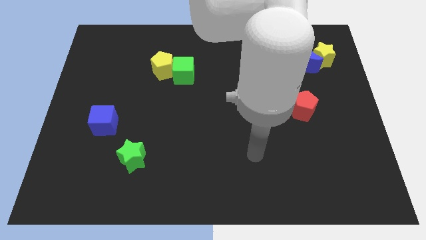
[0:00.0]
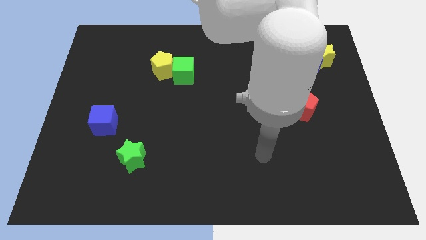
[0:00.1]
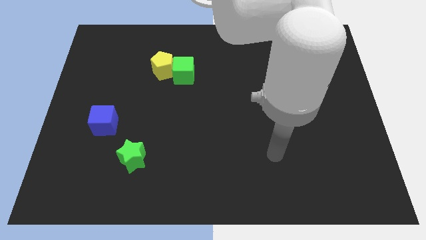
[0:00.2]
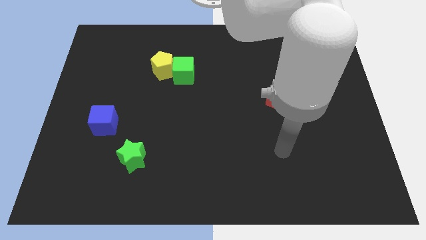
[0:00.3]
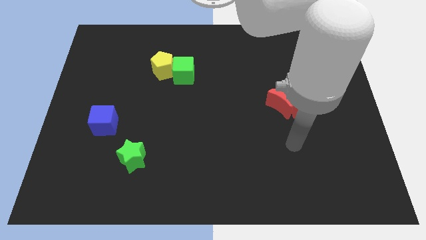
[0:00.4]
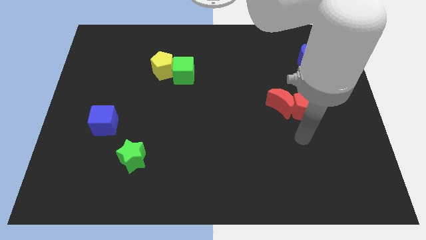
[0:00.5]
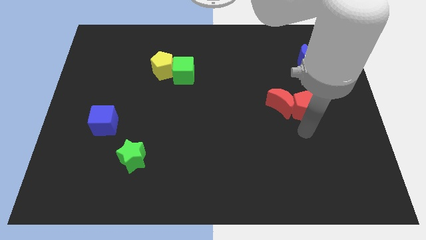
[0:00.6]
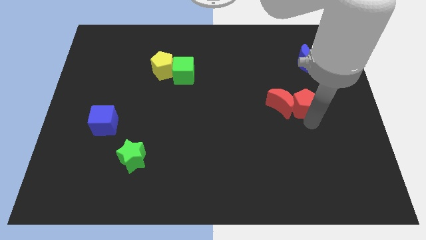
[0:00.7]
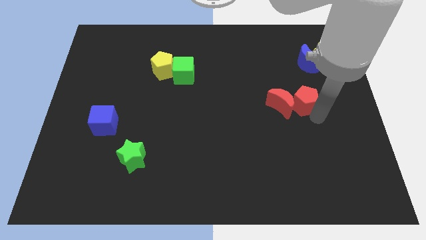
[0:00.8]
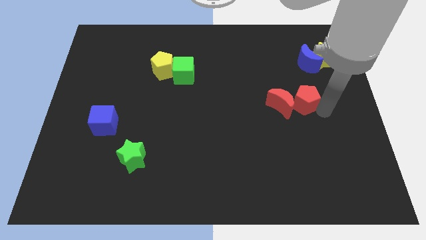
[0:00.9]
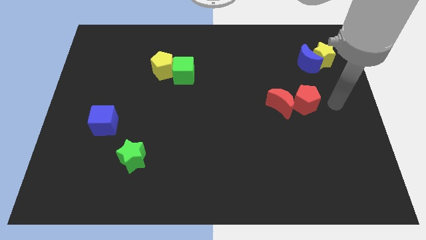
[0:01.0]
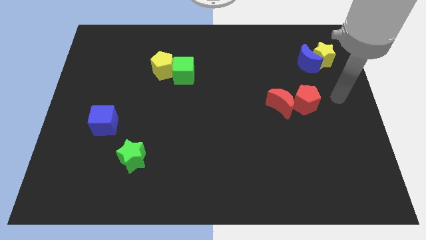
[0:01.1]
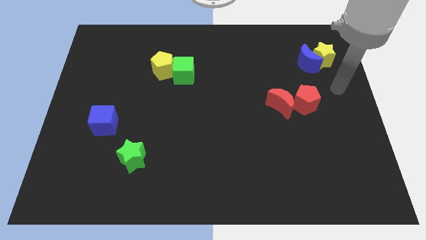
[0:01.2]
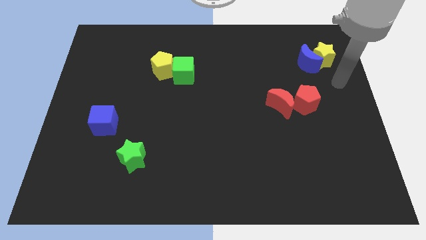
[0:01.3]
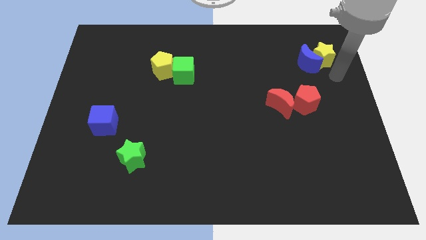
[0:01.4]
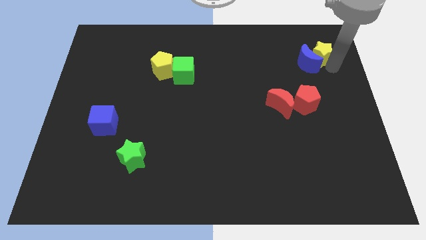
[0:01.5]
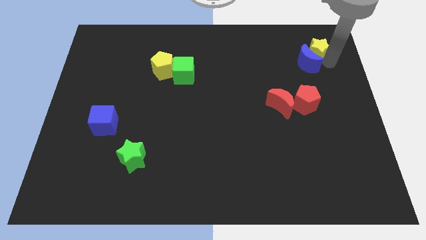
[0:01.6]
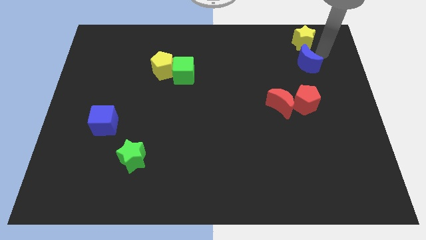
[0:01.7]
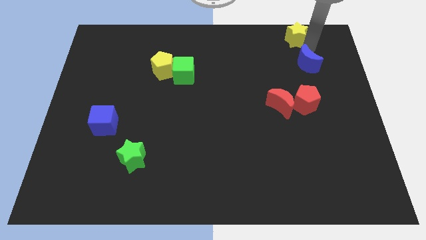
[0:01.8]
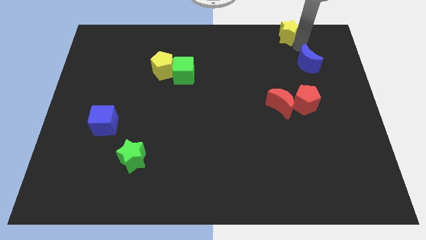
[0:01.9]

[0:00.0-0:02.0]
pull the blue moon apart from the yellow star

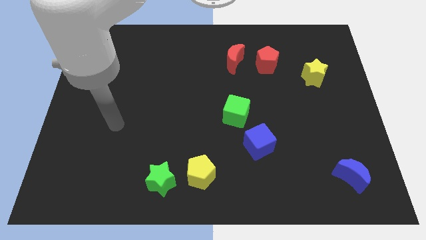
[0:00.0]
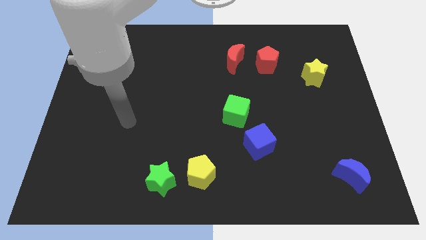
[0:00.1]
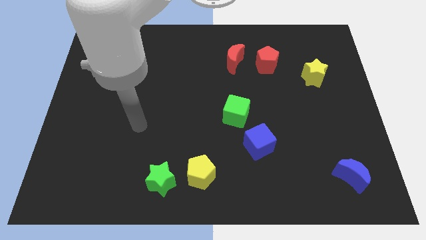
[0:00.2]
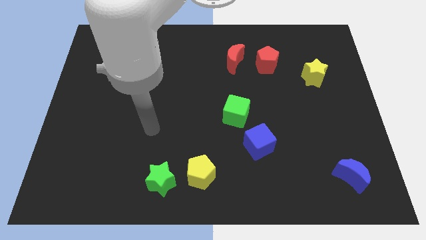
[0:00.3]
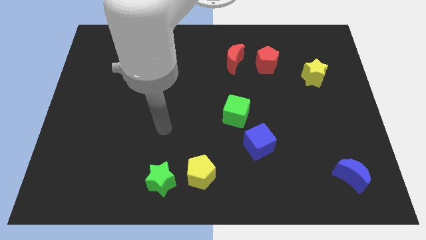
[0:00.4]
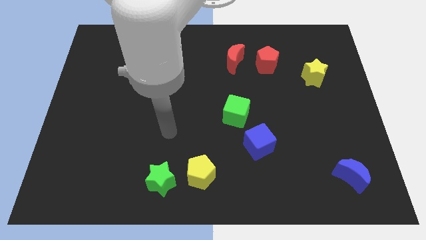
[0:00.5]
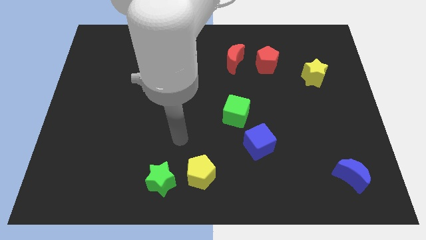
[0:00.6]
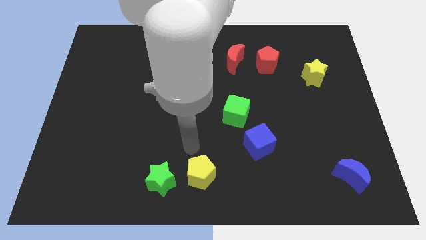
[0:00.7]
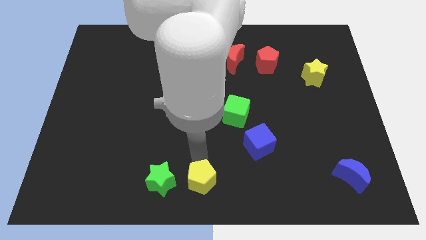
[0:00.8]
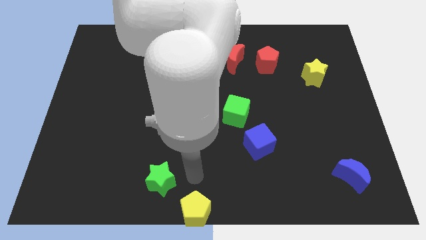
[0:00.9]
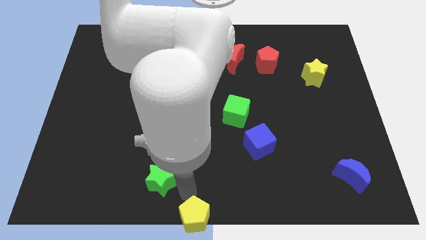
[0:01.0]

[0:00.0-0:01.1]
separate the green star from the yellow pentagon

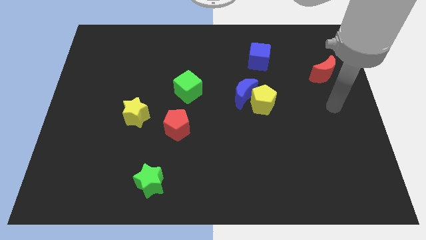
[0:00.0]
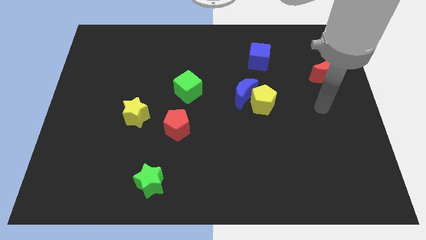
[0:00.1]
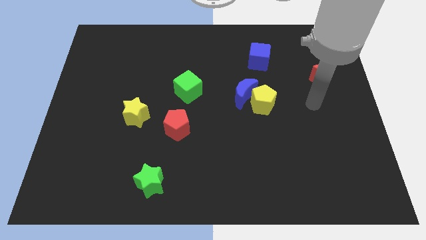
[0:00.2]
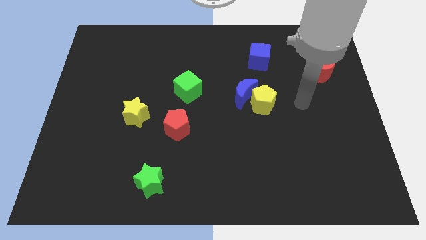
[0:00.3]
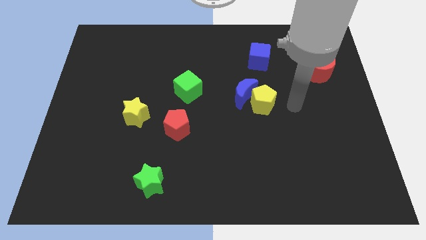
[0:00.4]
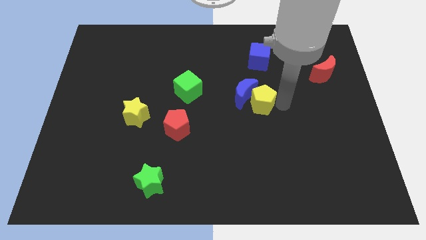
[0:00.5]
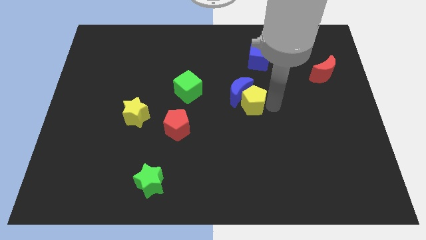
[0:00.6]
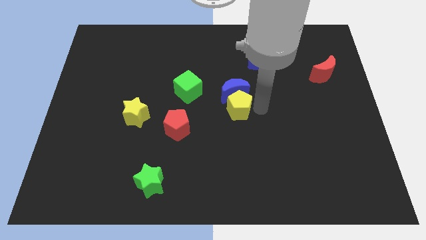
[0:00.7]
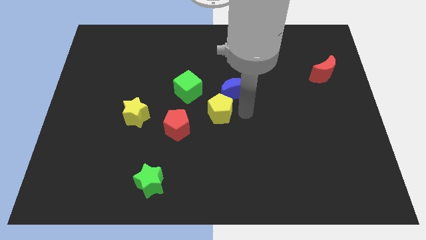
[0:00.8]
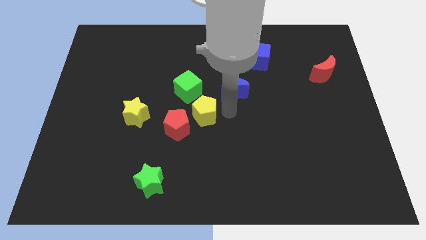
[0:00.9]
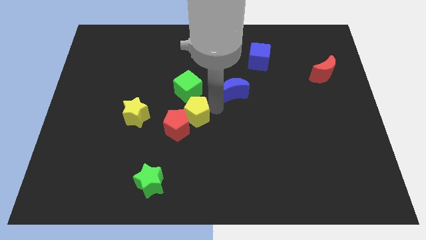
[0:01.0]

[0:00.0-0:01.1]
move the blue moon away from the yellow pentagon

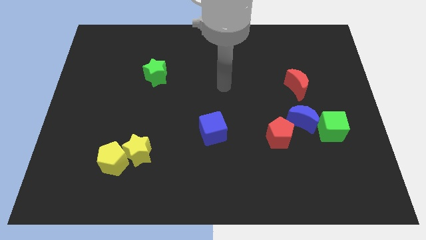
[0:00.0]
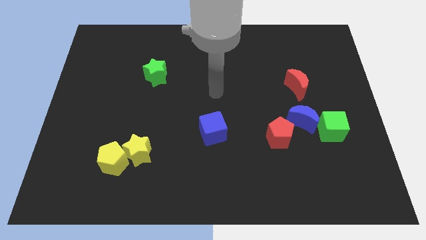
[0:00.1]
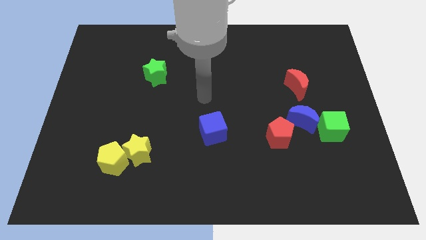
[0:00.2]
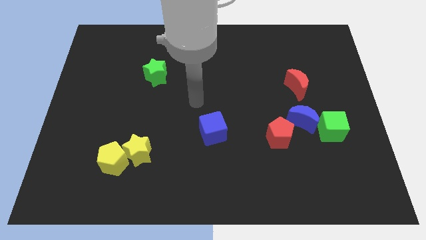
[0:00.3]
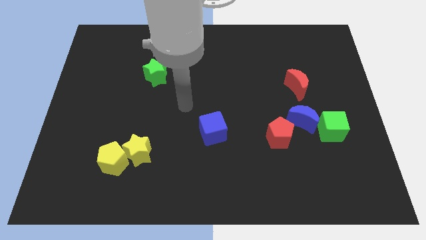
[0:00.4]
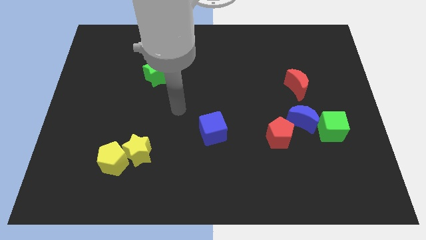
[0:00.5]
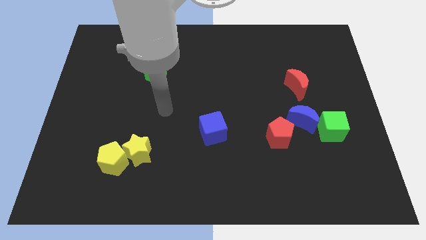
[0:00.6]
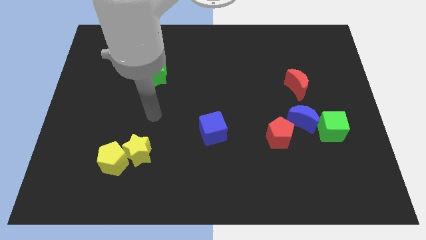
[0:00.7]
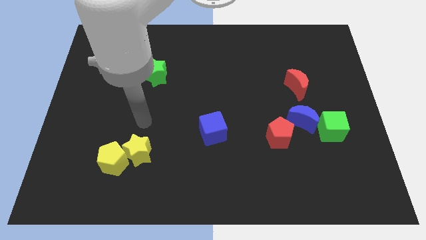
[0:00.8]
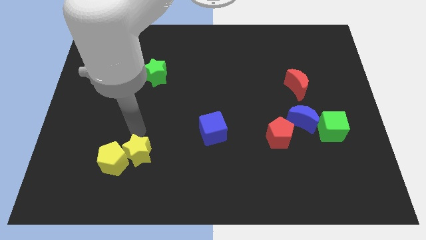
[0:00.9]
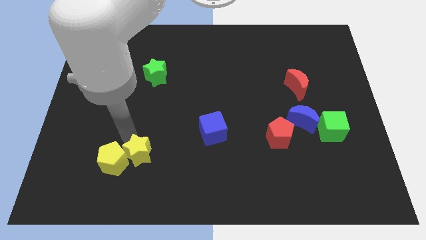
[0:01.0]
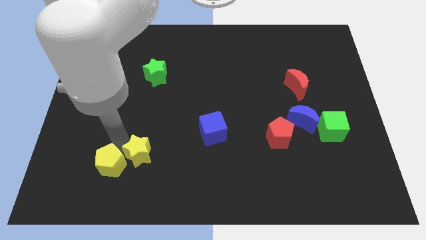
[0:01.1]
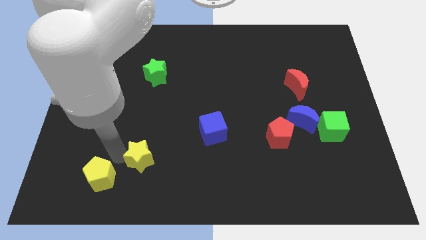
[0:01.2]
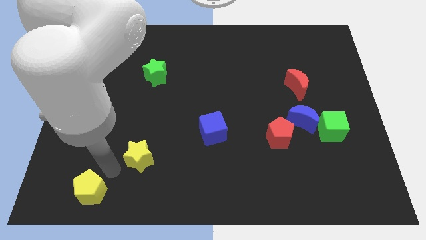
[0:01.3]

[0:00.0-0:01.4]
separate the yellow star from the yellow pentagon

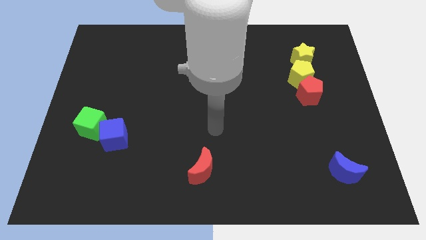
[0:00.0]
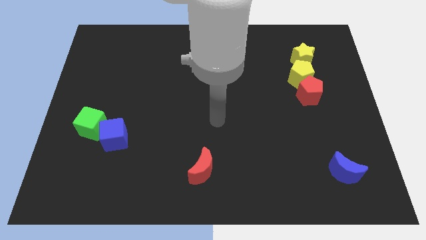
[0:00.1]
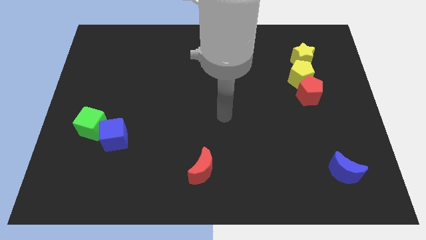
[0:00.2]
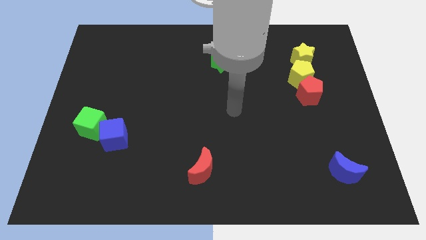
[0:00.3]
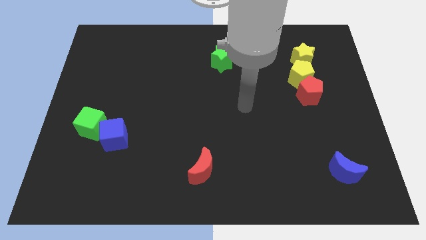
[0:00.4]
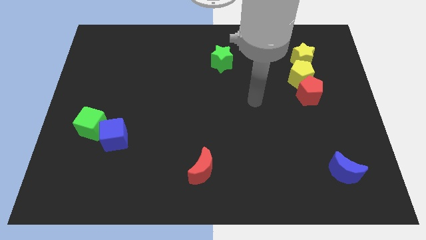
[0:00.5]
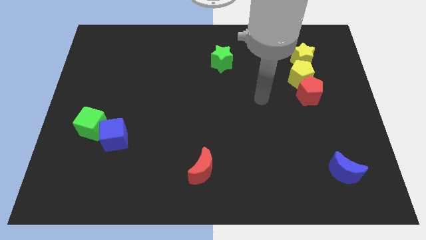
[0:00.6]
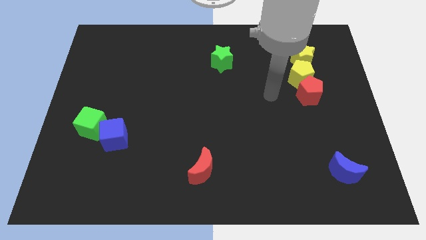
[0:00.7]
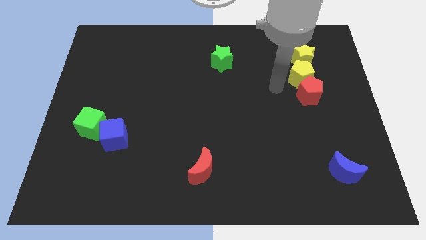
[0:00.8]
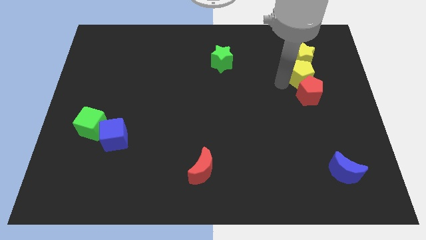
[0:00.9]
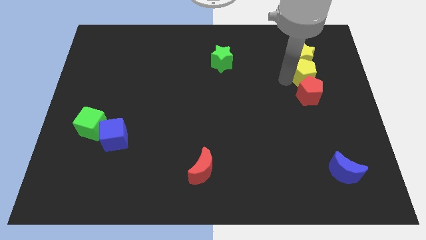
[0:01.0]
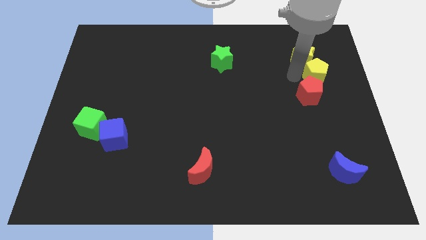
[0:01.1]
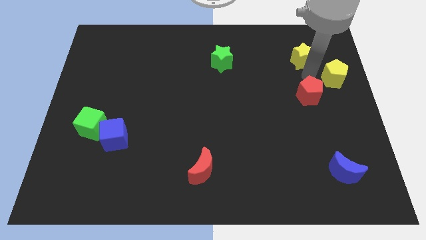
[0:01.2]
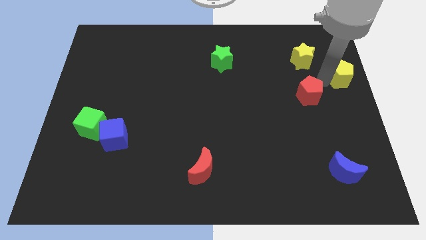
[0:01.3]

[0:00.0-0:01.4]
separate the red pentagon from the yellow pentagon

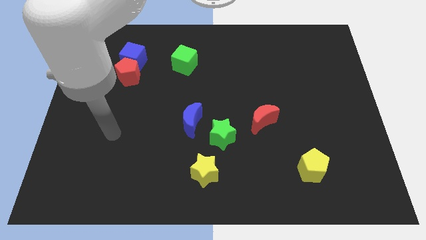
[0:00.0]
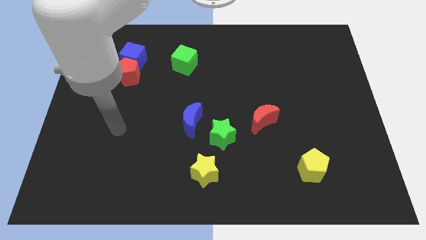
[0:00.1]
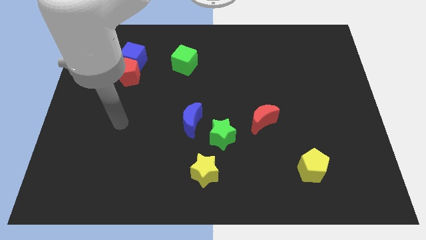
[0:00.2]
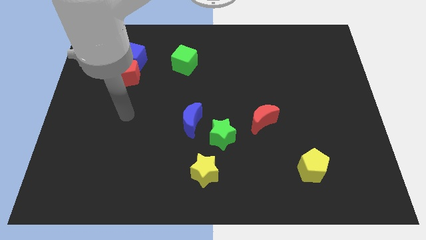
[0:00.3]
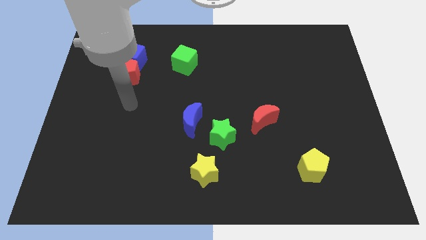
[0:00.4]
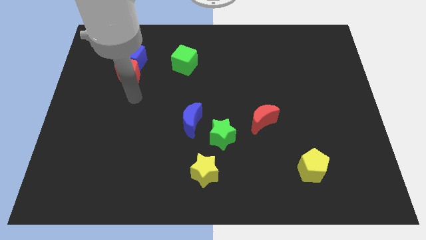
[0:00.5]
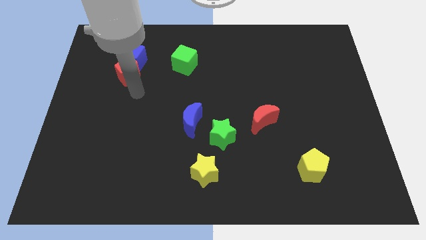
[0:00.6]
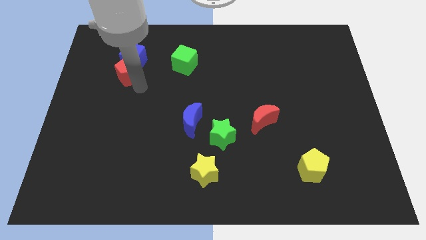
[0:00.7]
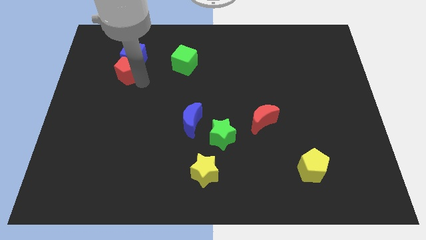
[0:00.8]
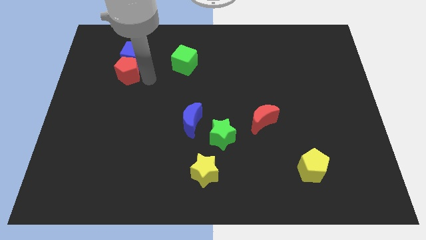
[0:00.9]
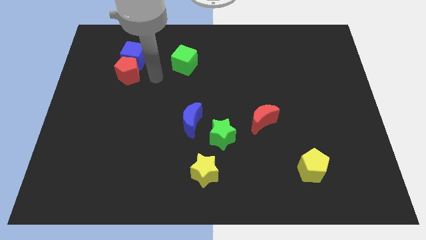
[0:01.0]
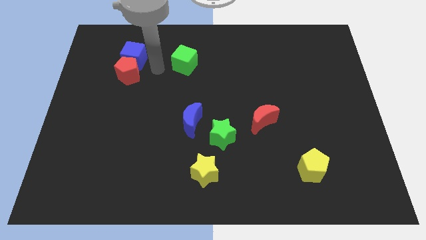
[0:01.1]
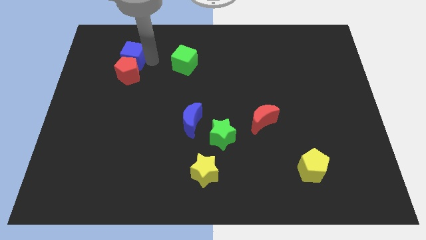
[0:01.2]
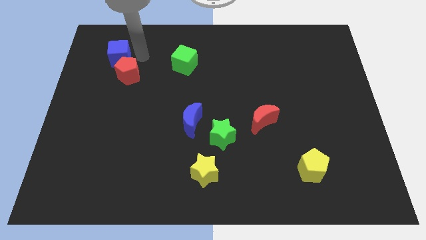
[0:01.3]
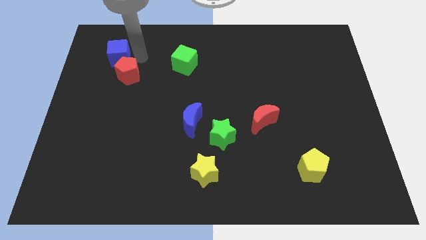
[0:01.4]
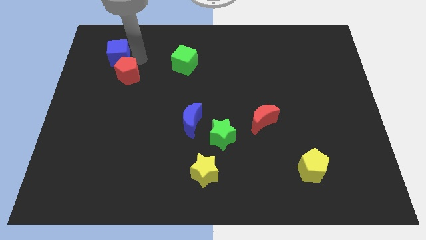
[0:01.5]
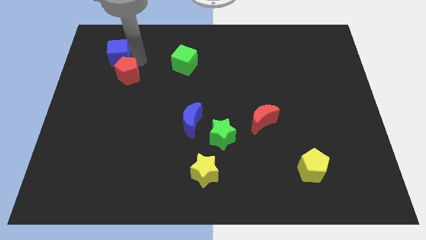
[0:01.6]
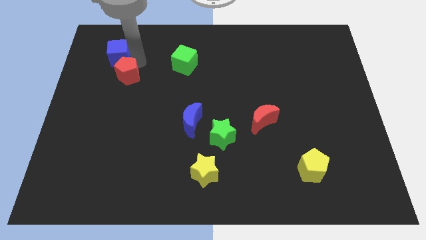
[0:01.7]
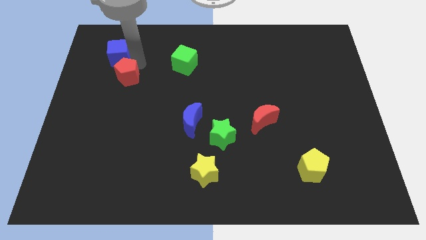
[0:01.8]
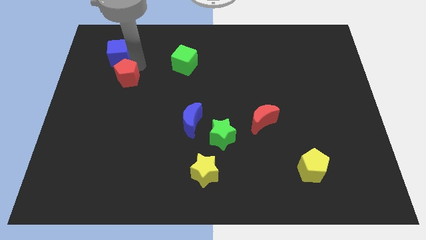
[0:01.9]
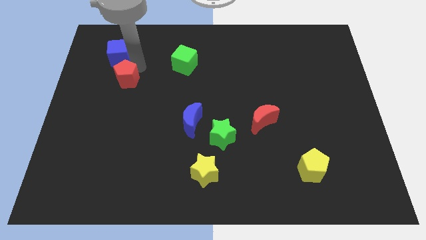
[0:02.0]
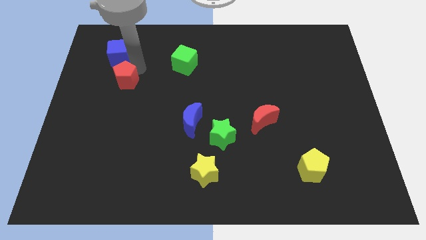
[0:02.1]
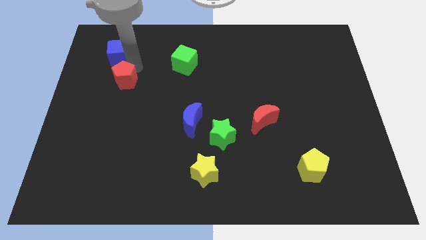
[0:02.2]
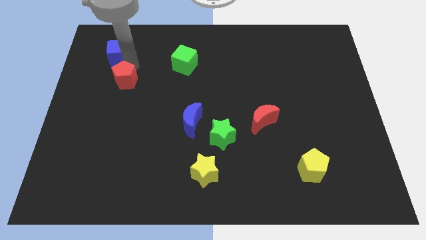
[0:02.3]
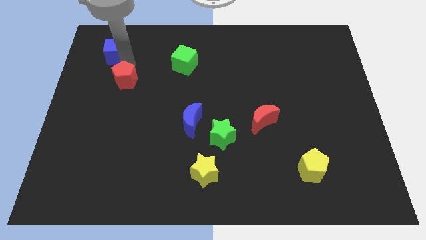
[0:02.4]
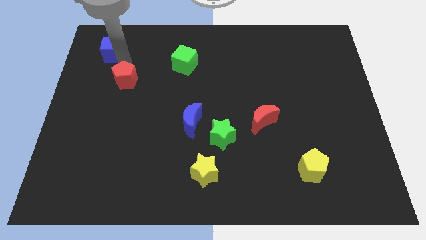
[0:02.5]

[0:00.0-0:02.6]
pull the red pentagon apart from the blue cube
